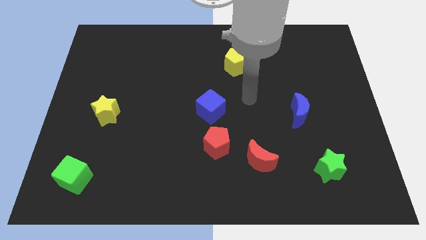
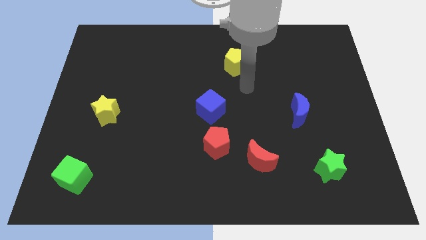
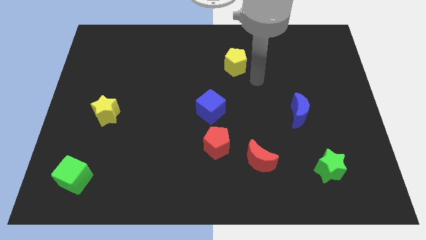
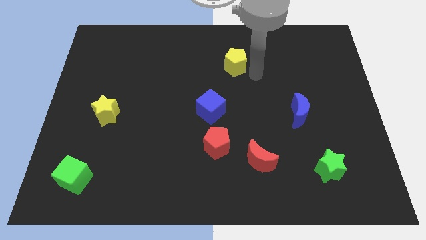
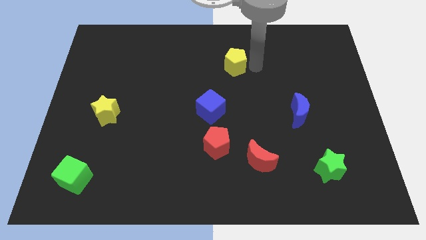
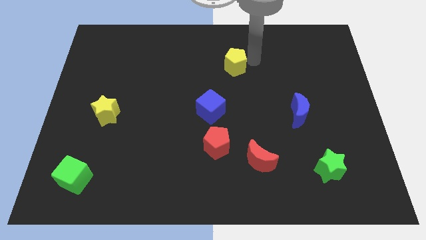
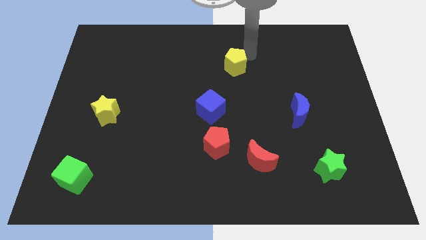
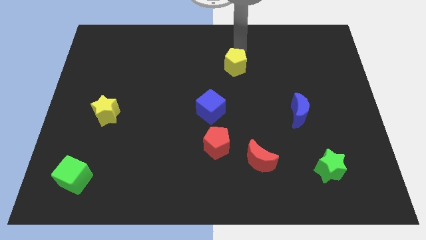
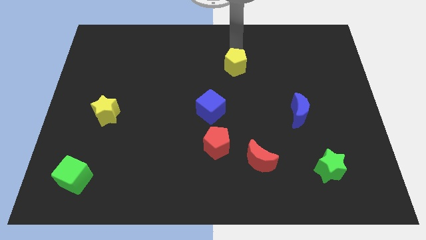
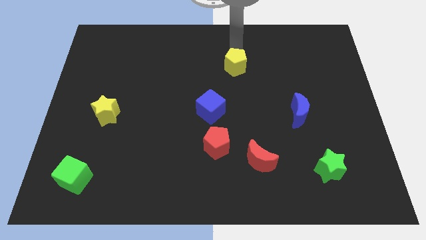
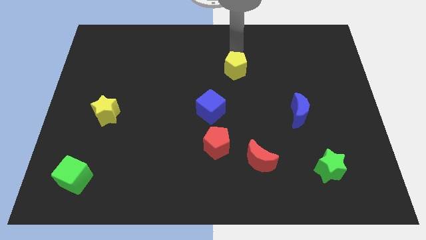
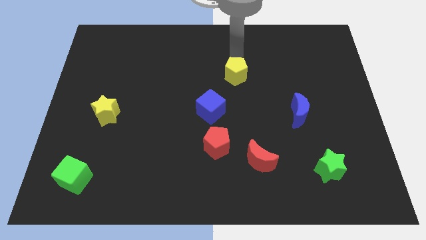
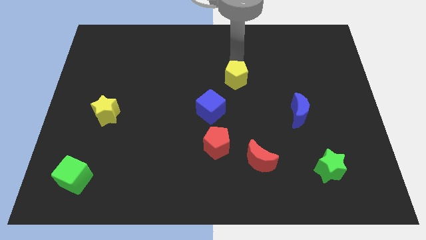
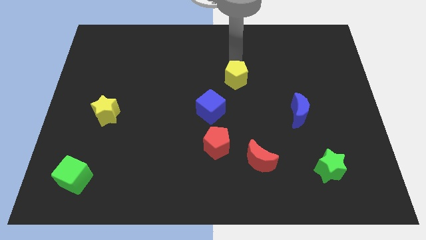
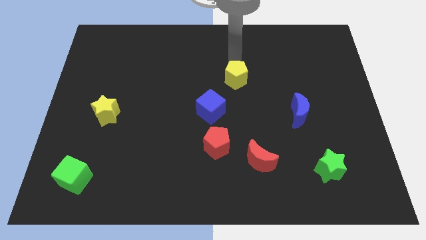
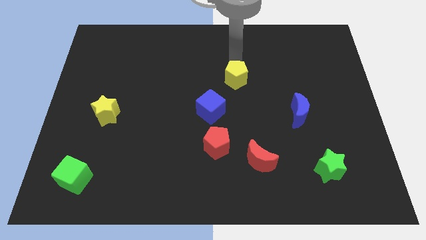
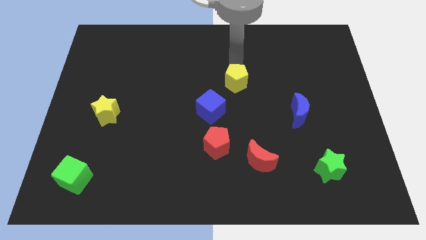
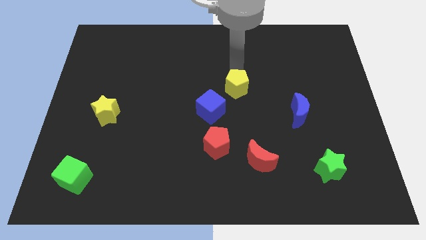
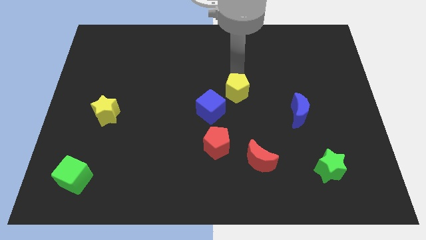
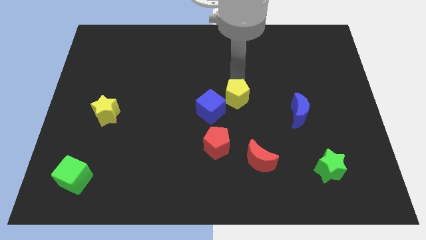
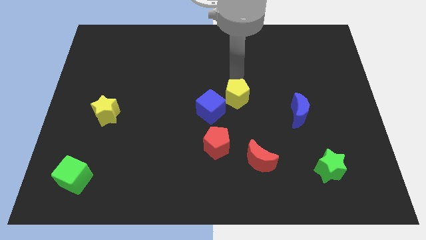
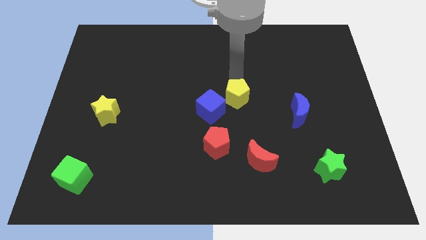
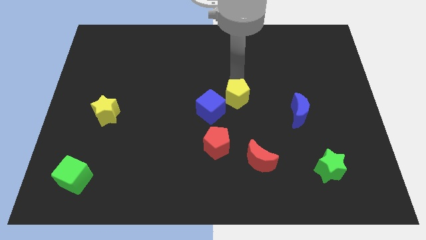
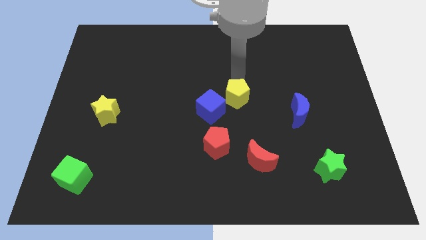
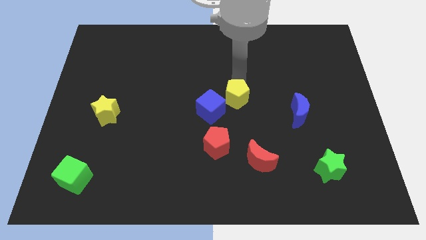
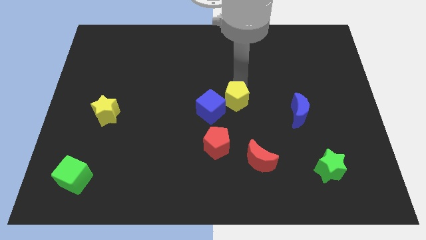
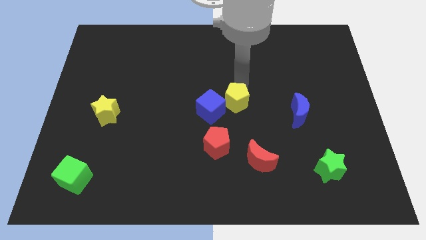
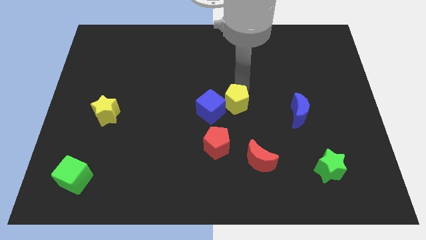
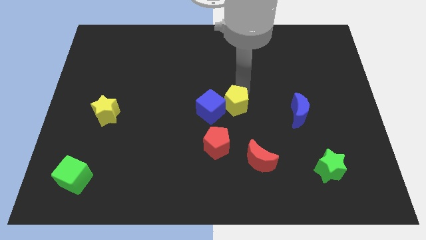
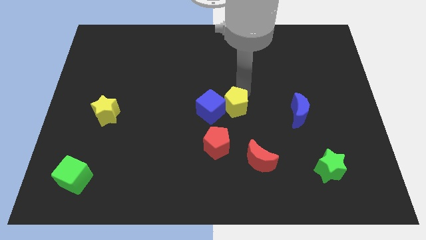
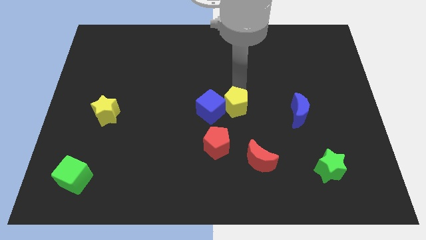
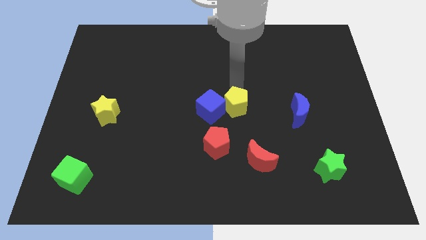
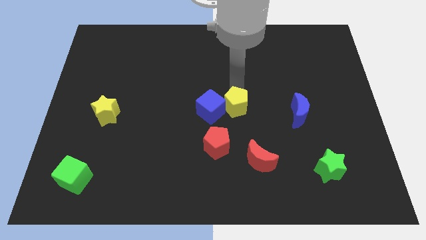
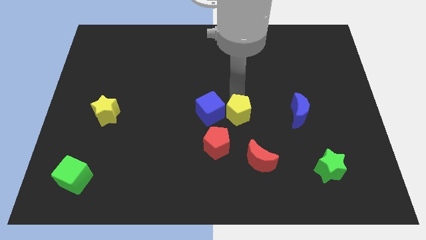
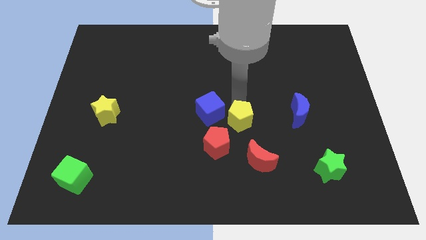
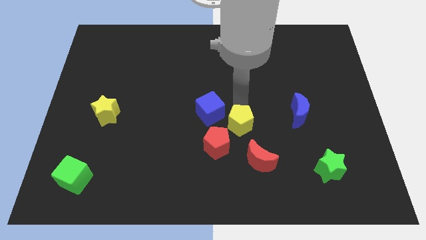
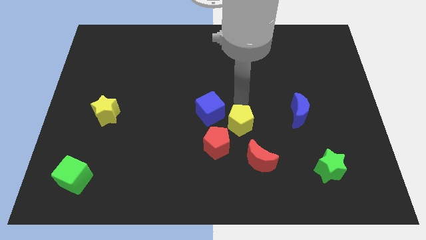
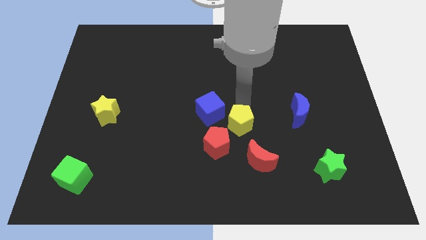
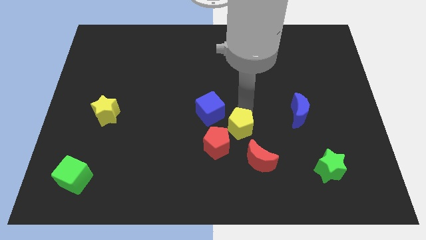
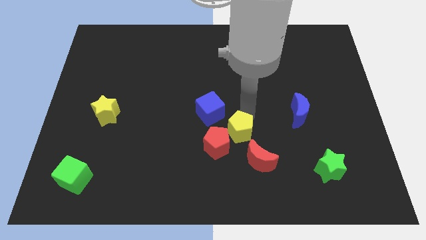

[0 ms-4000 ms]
move the yellow pentagon down

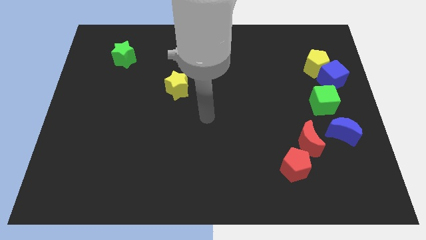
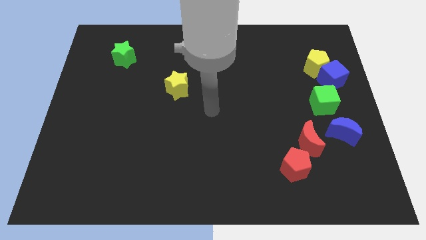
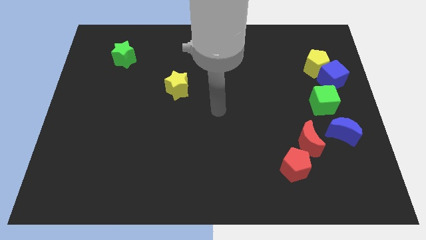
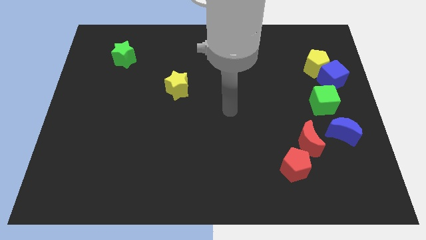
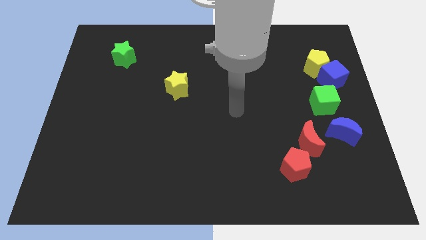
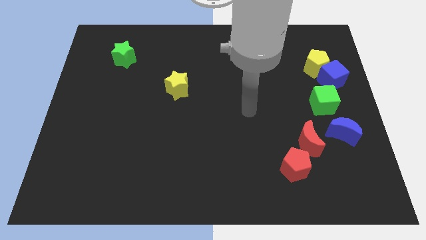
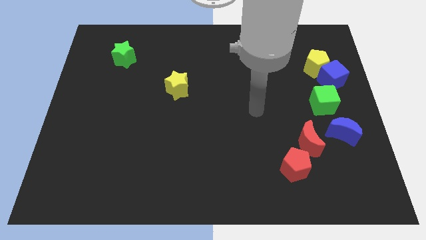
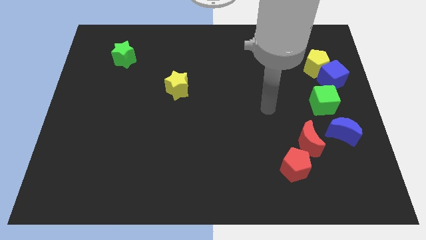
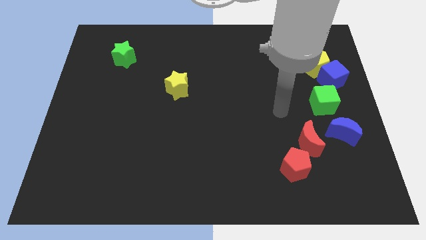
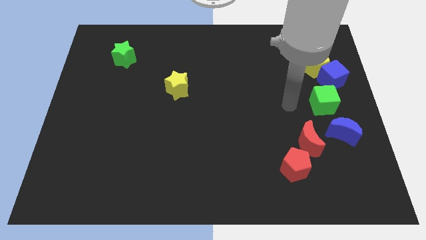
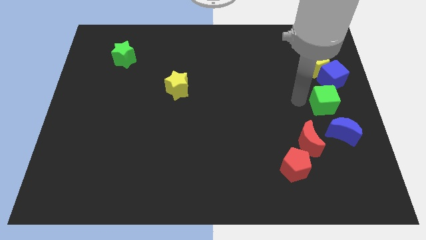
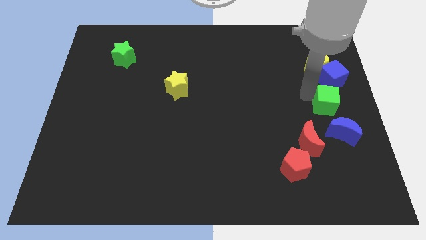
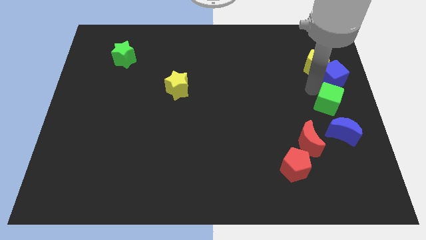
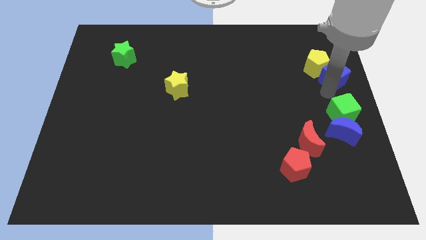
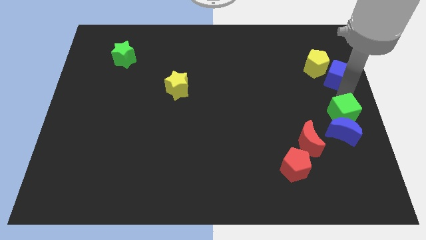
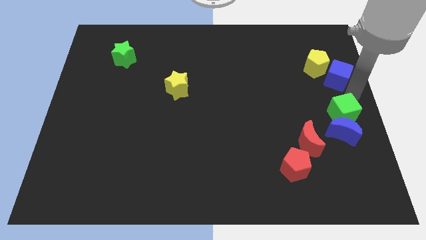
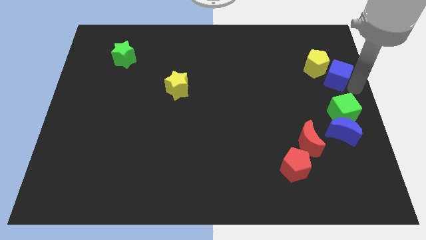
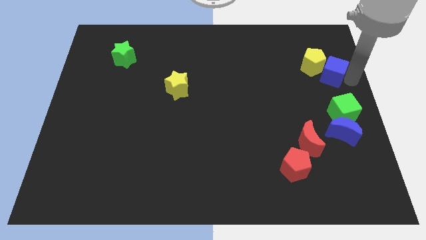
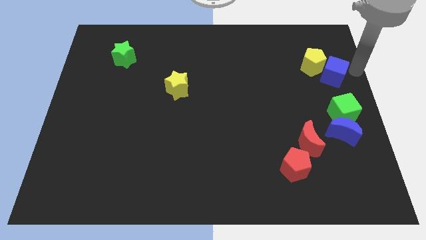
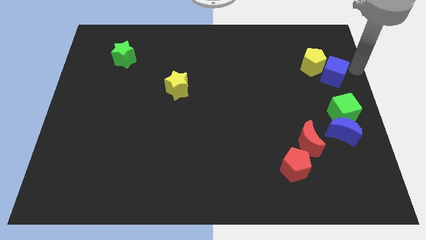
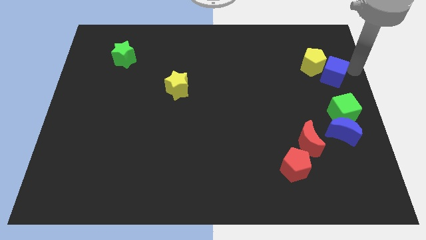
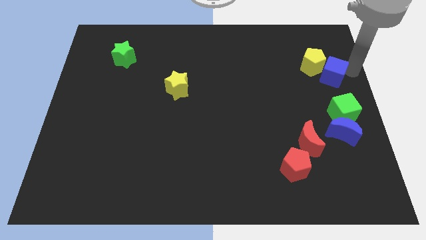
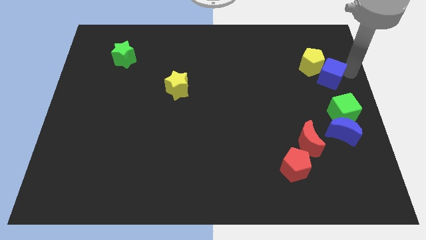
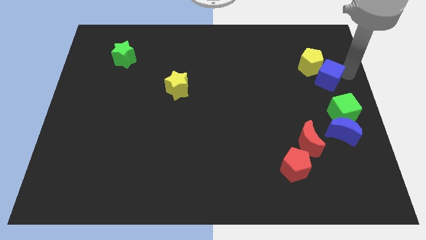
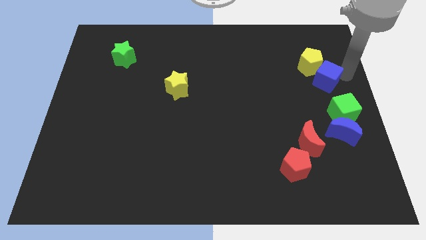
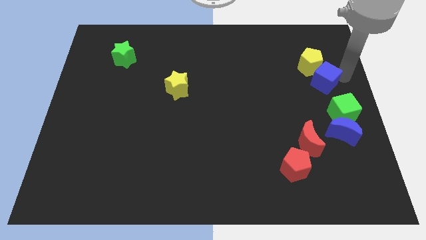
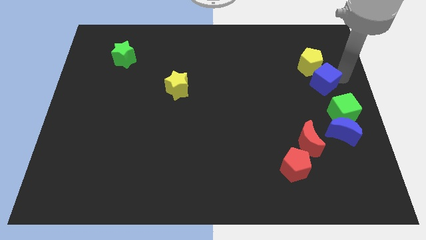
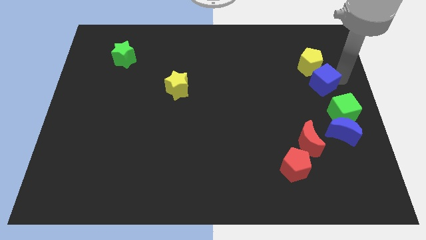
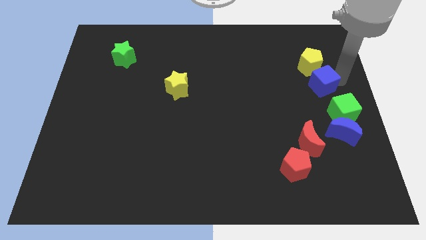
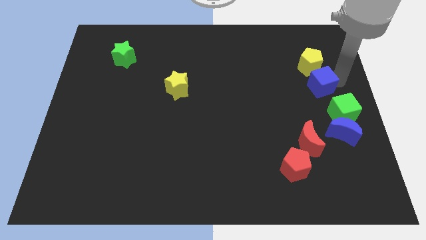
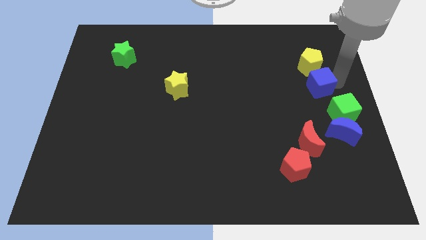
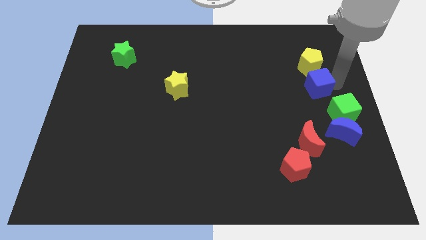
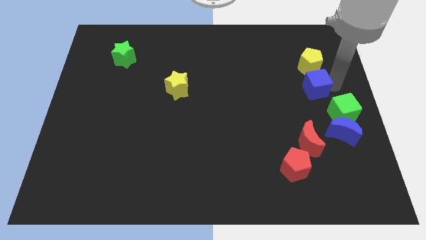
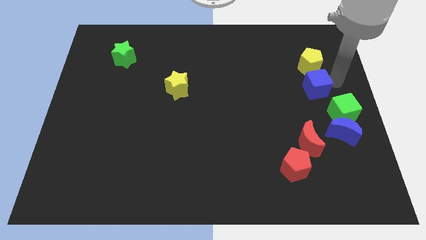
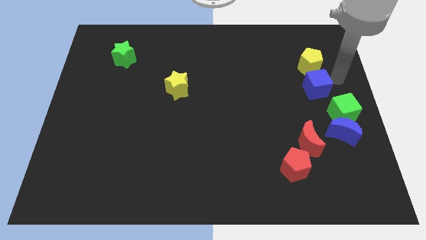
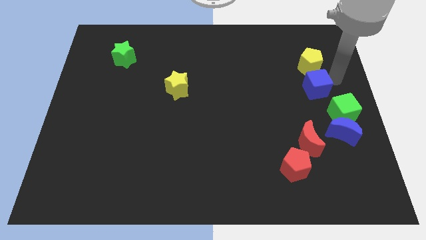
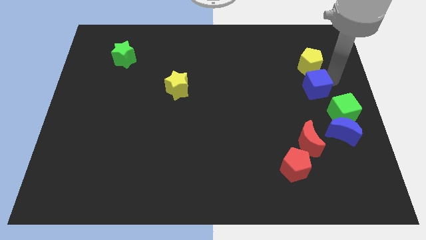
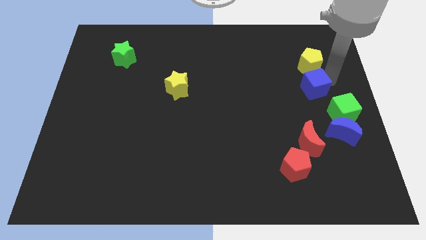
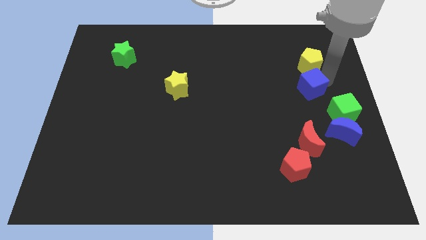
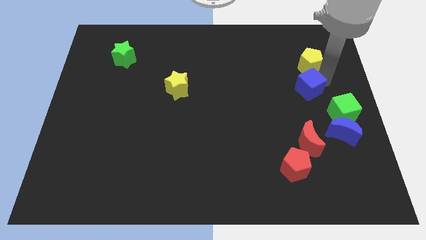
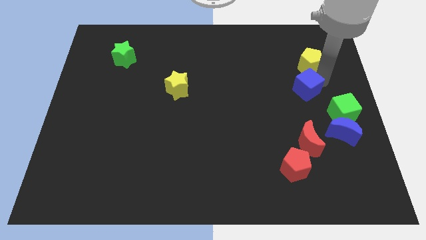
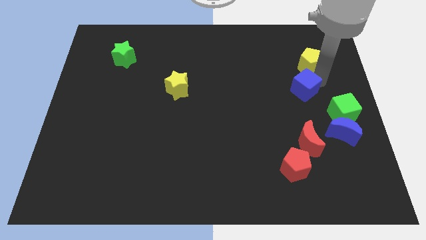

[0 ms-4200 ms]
slightly push the blue cube down and then to the left
